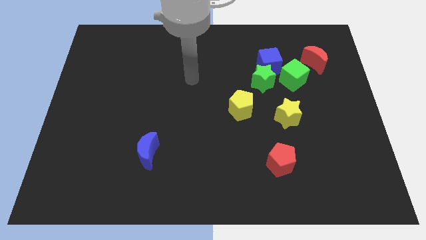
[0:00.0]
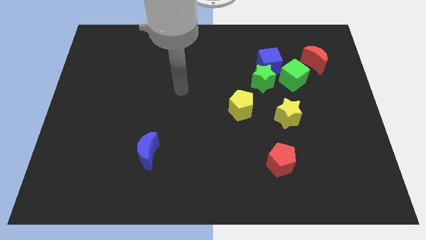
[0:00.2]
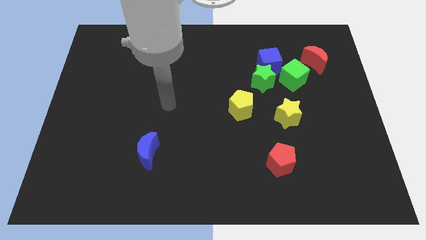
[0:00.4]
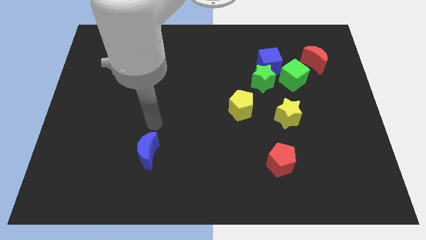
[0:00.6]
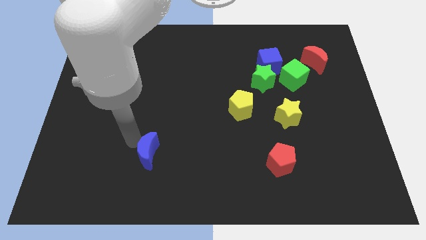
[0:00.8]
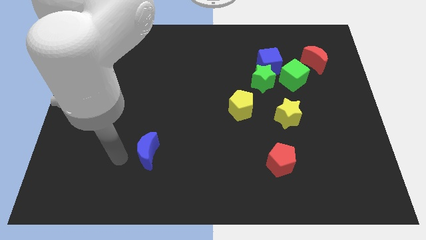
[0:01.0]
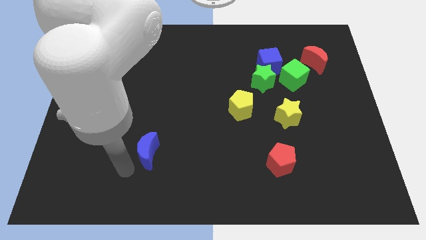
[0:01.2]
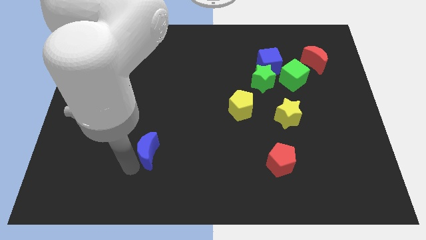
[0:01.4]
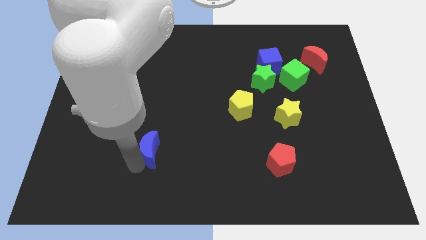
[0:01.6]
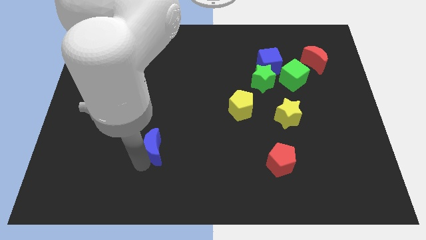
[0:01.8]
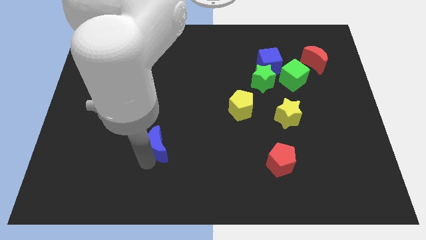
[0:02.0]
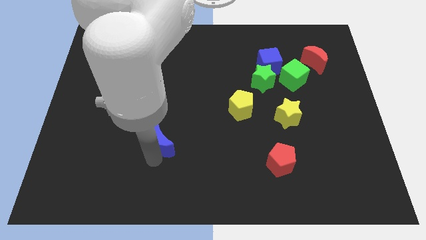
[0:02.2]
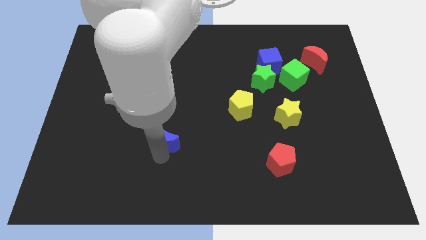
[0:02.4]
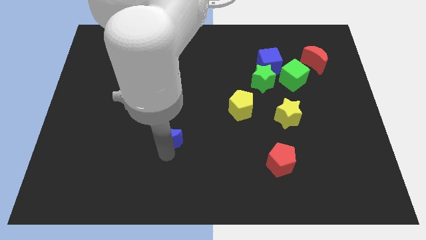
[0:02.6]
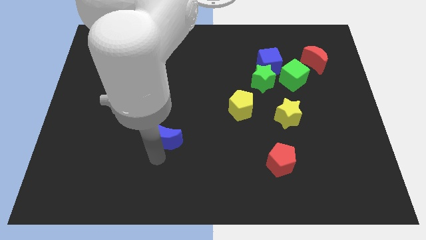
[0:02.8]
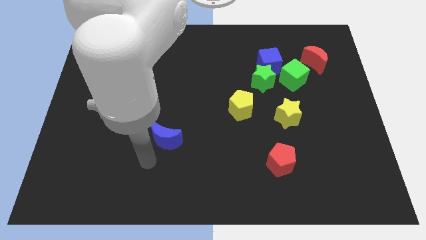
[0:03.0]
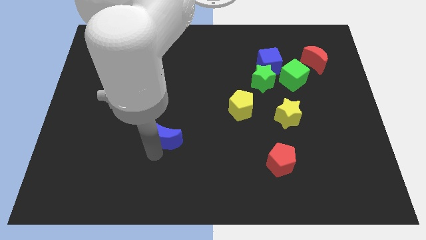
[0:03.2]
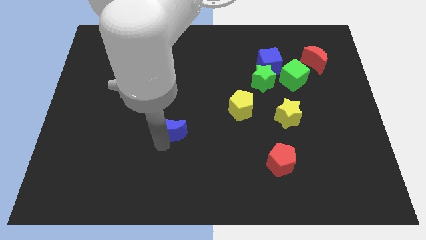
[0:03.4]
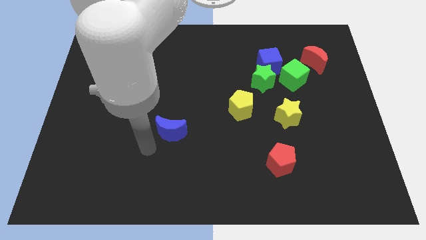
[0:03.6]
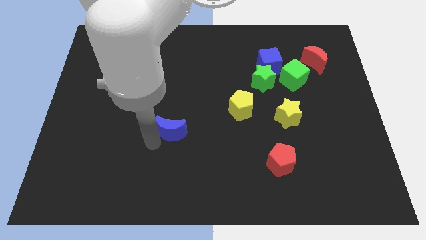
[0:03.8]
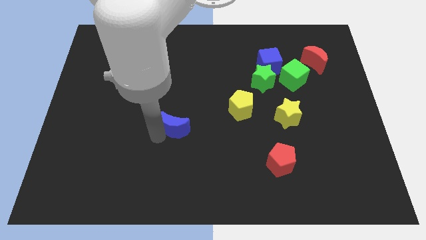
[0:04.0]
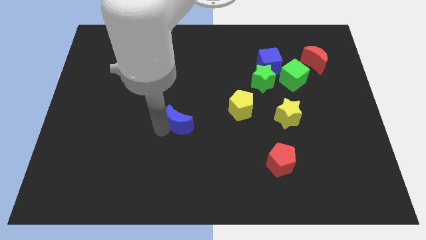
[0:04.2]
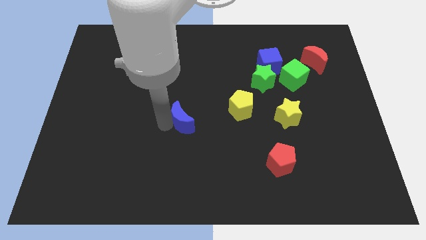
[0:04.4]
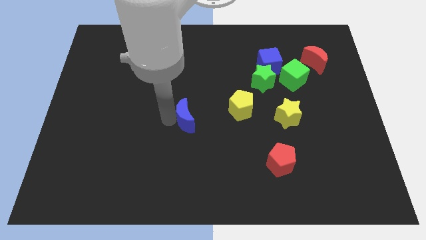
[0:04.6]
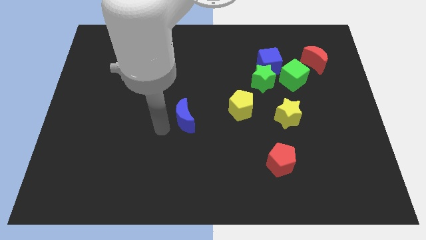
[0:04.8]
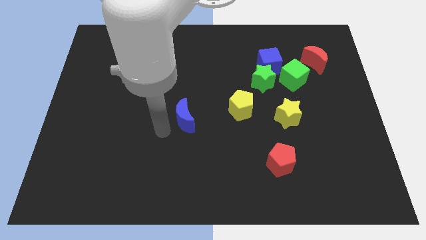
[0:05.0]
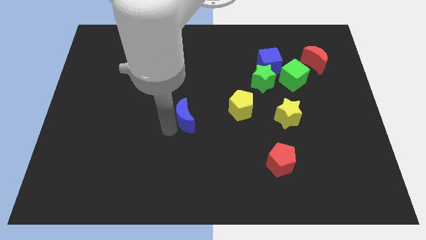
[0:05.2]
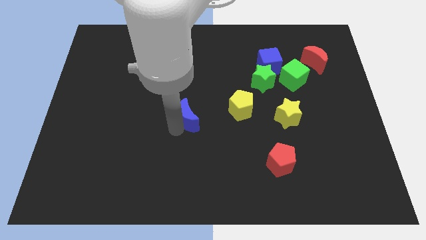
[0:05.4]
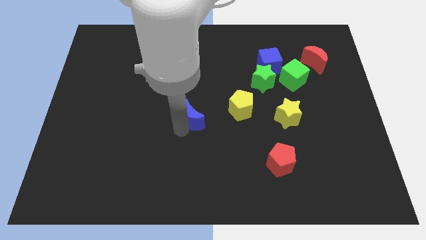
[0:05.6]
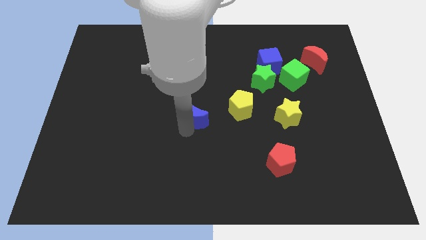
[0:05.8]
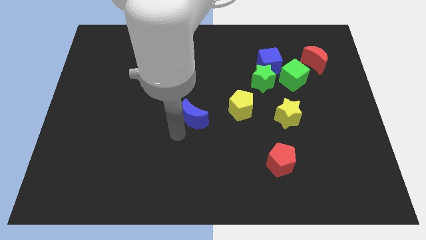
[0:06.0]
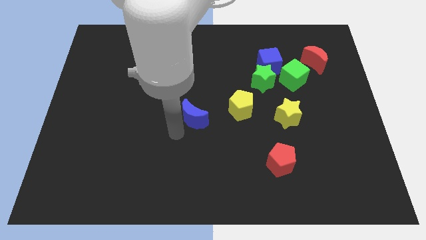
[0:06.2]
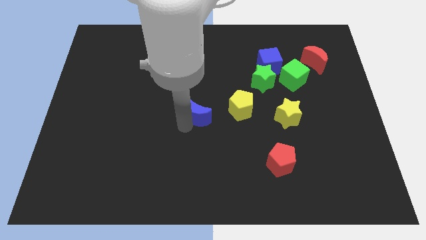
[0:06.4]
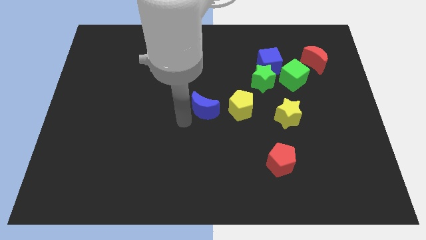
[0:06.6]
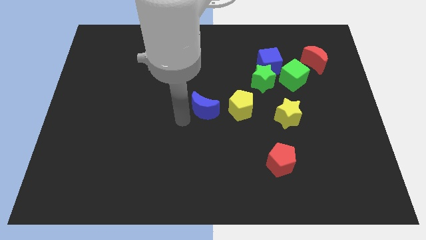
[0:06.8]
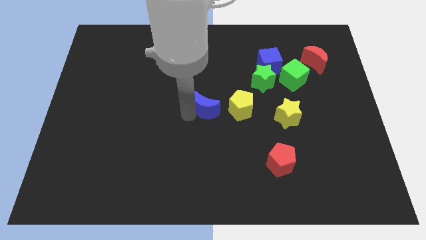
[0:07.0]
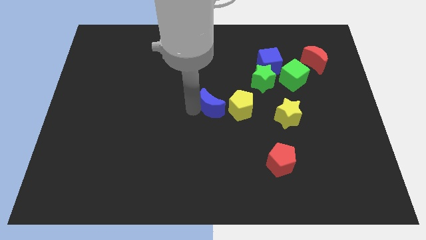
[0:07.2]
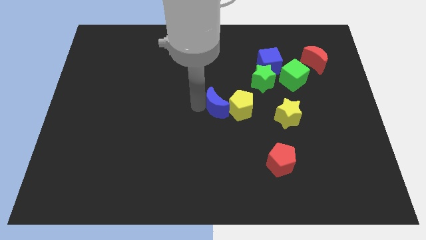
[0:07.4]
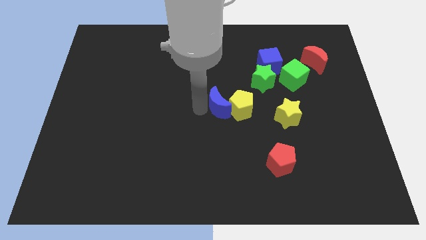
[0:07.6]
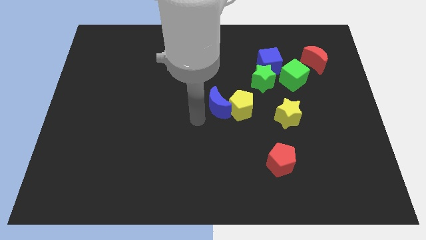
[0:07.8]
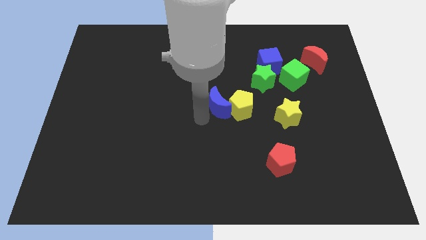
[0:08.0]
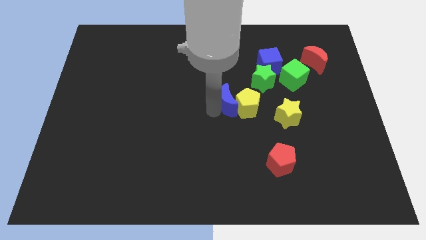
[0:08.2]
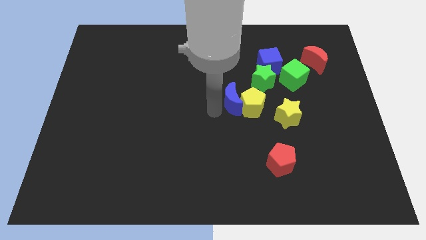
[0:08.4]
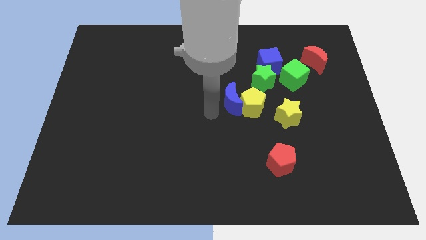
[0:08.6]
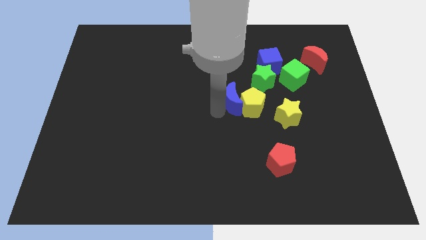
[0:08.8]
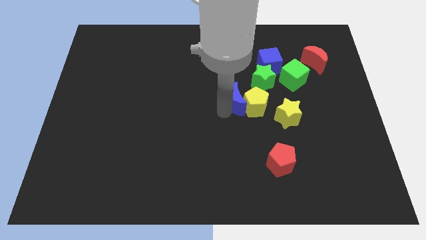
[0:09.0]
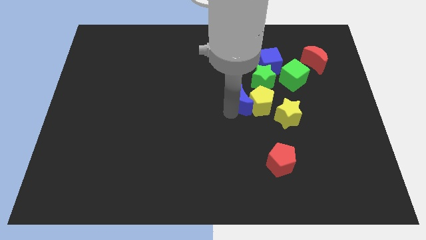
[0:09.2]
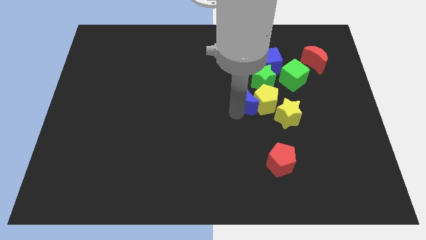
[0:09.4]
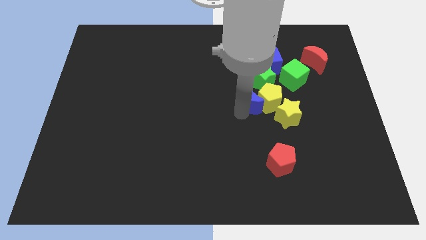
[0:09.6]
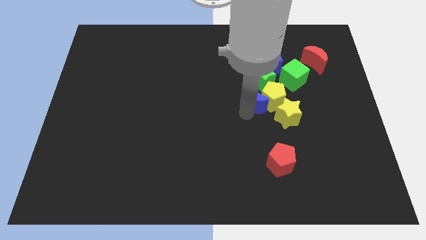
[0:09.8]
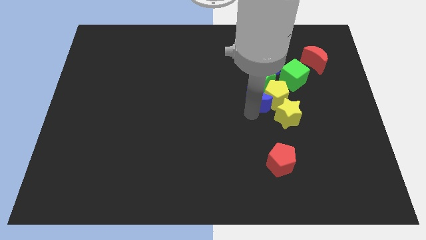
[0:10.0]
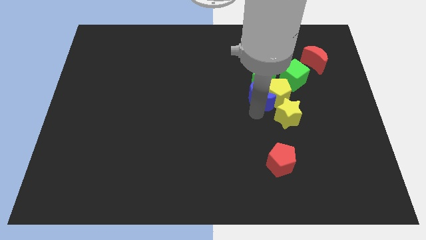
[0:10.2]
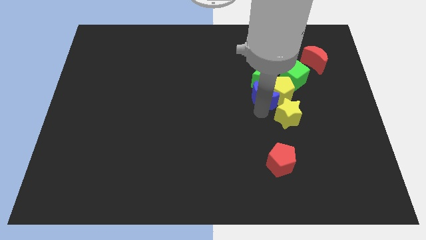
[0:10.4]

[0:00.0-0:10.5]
move the blue moon towards the green star

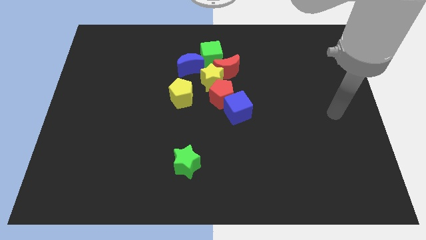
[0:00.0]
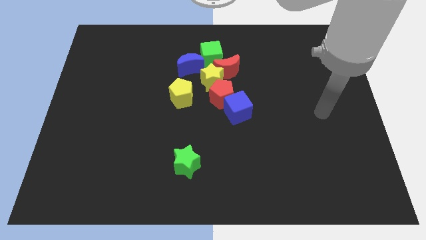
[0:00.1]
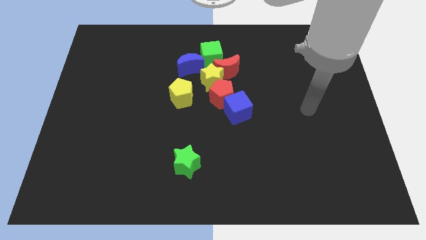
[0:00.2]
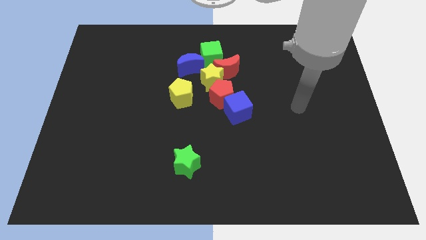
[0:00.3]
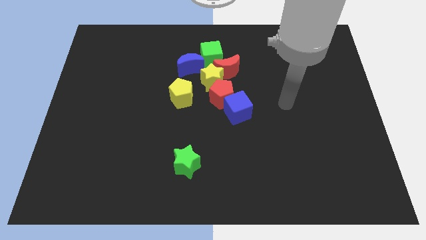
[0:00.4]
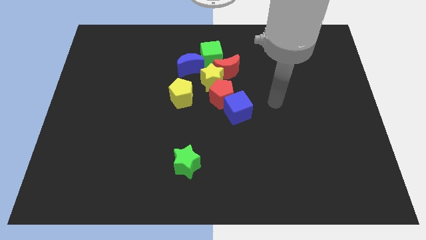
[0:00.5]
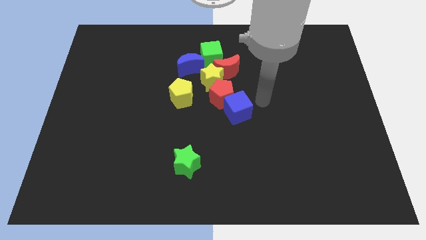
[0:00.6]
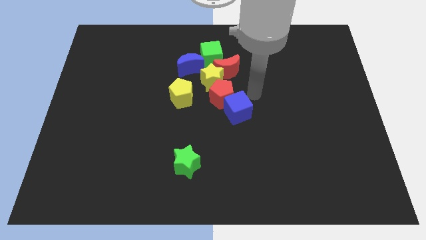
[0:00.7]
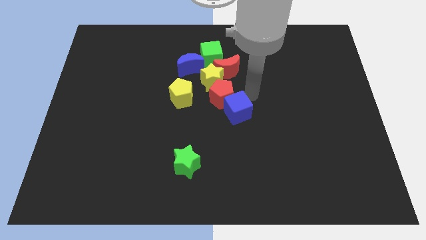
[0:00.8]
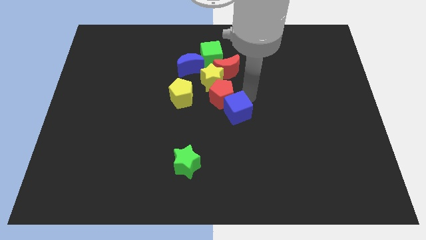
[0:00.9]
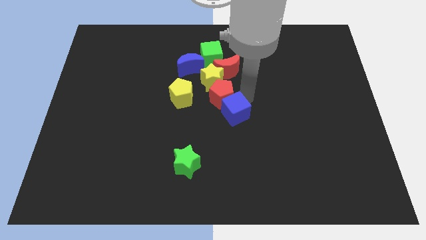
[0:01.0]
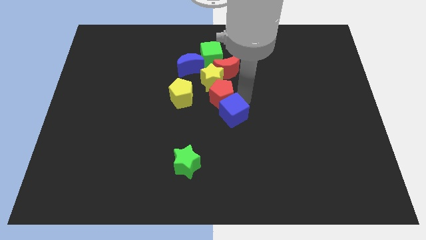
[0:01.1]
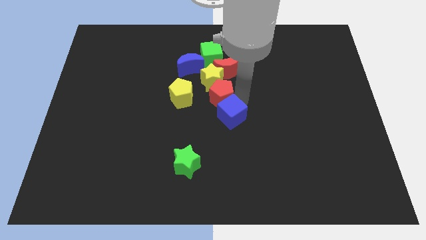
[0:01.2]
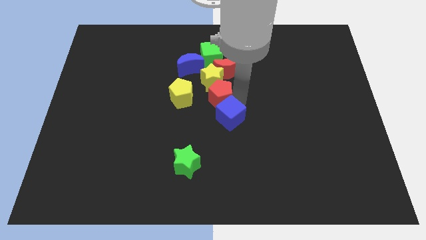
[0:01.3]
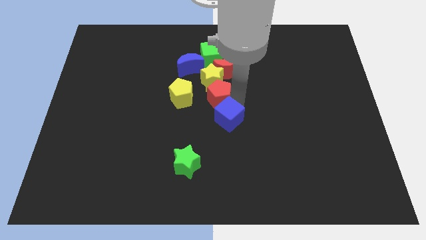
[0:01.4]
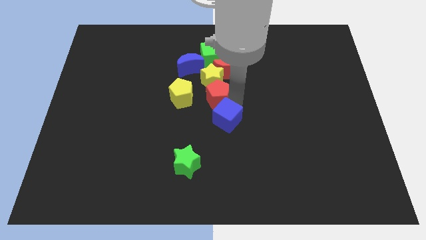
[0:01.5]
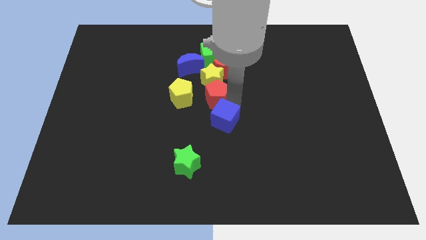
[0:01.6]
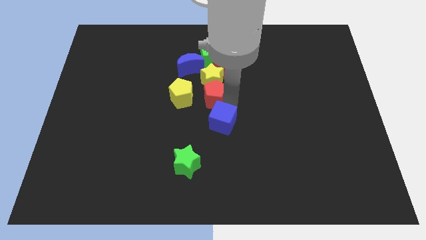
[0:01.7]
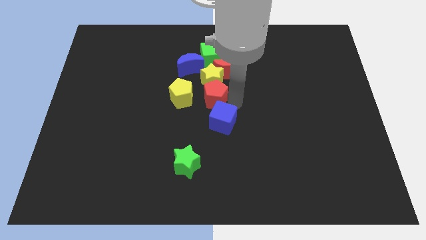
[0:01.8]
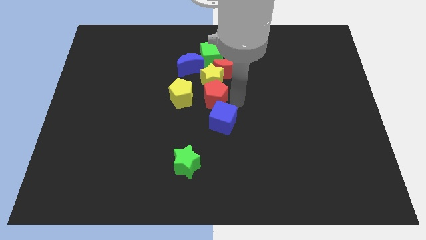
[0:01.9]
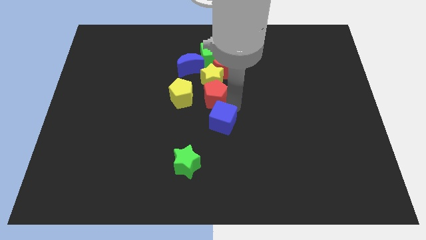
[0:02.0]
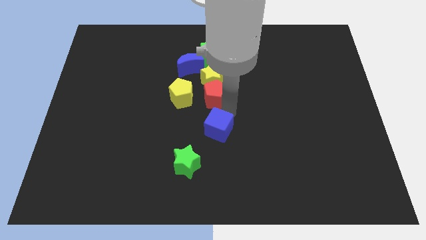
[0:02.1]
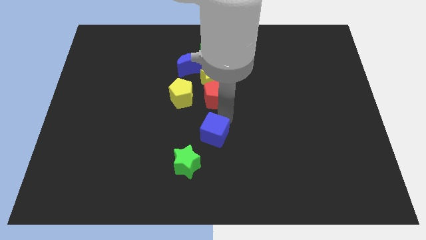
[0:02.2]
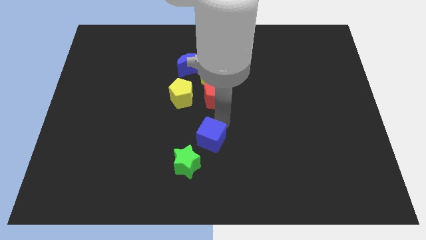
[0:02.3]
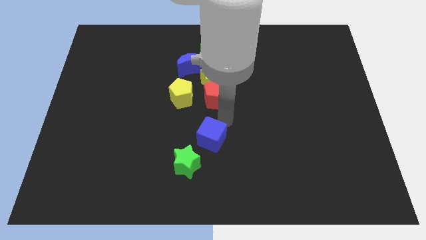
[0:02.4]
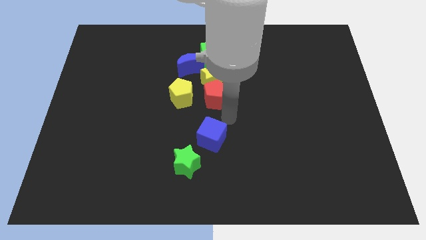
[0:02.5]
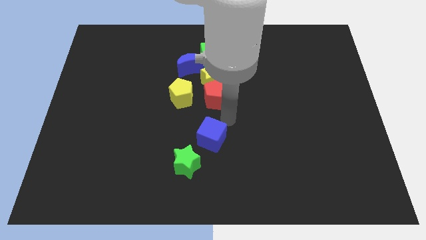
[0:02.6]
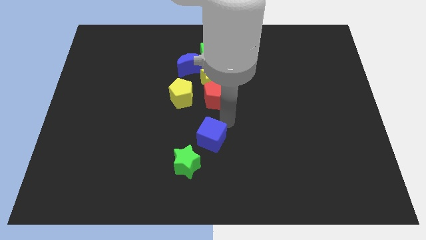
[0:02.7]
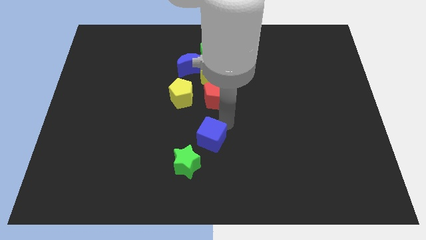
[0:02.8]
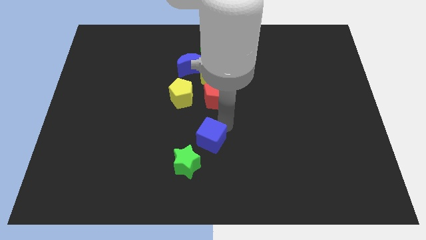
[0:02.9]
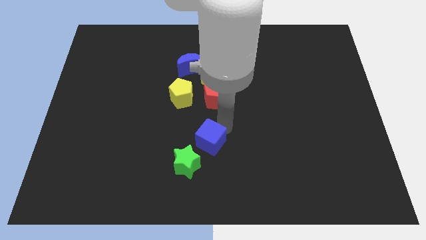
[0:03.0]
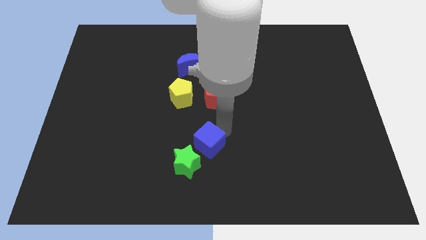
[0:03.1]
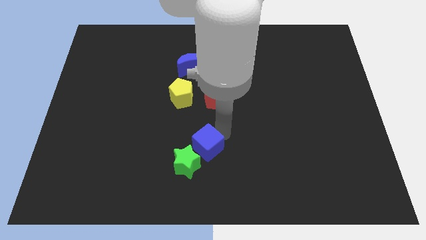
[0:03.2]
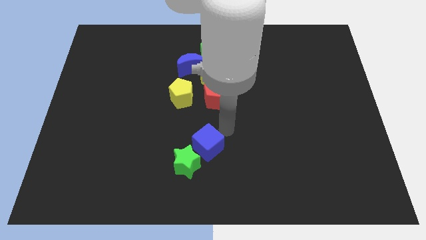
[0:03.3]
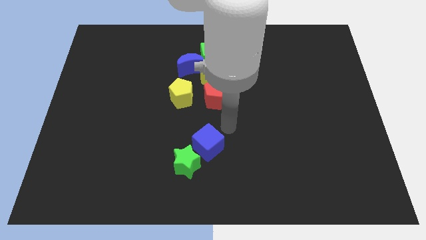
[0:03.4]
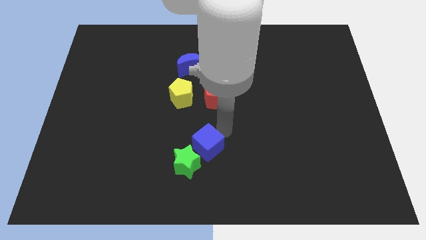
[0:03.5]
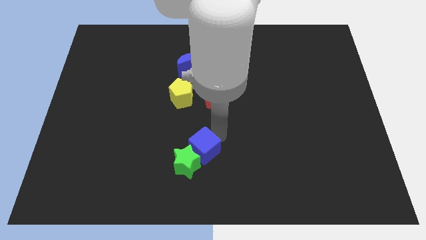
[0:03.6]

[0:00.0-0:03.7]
move the blue cube to the green star
